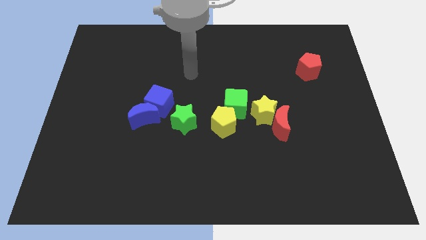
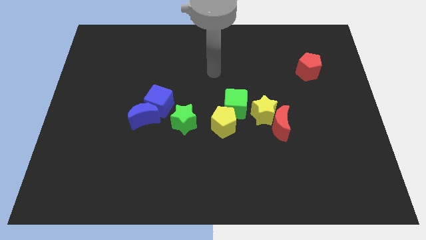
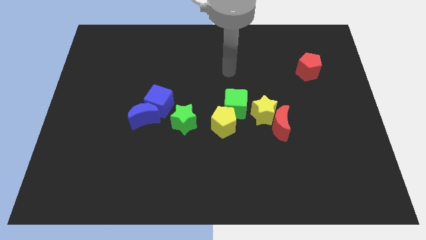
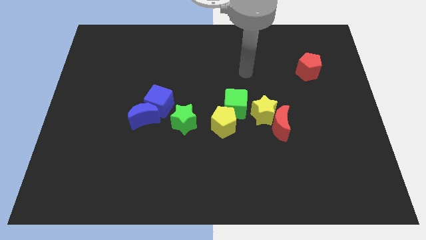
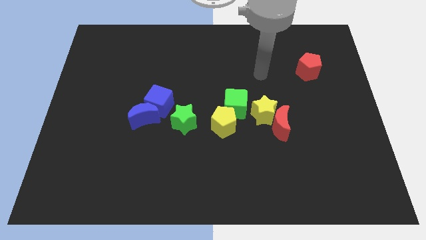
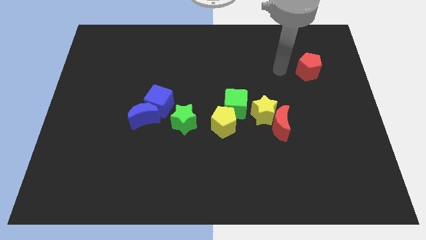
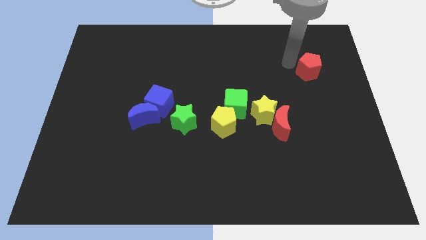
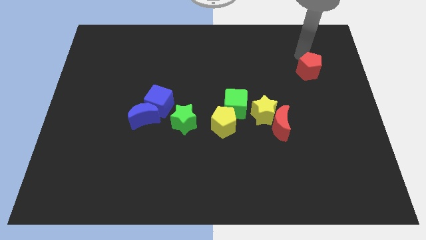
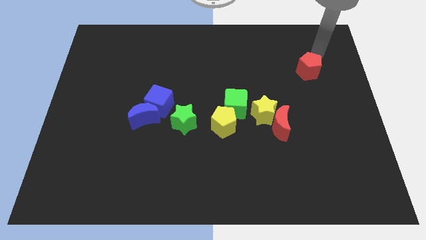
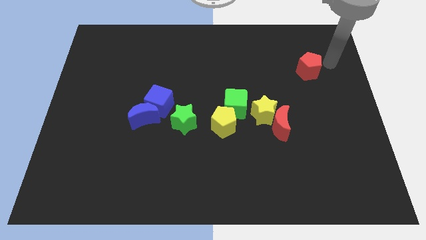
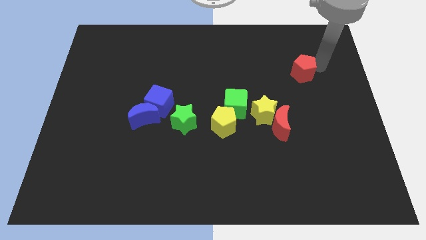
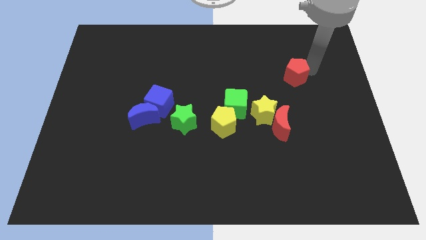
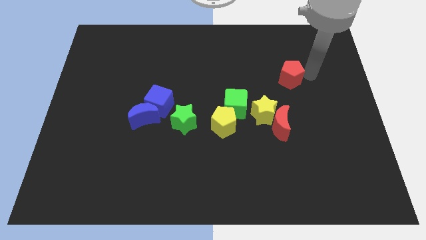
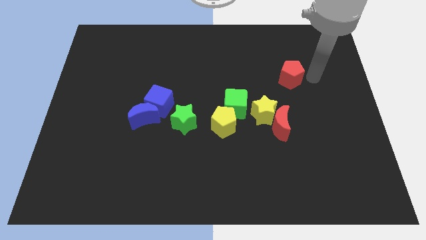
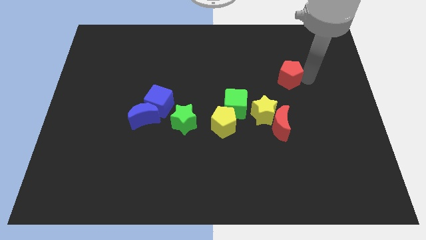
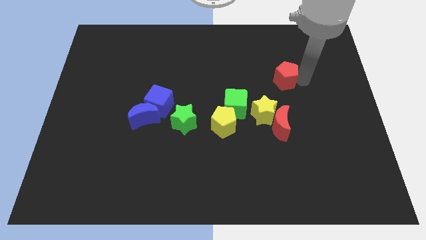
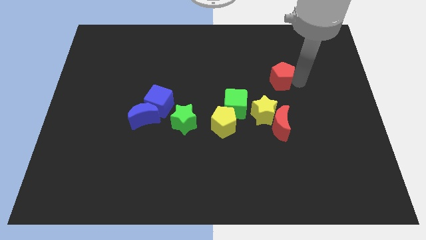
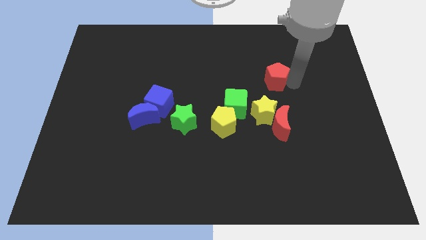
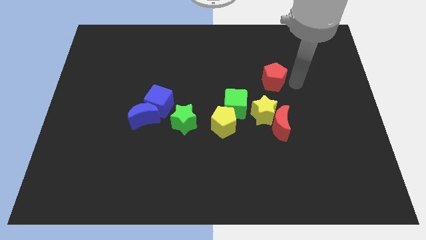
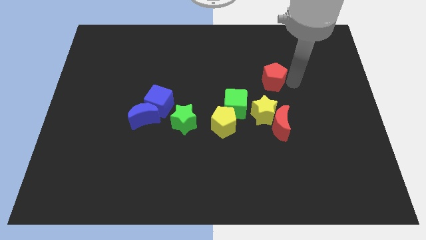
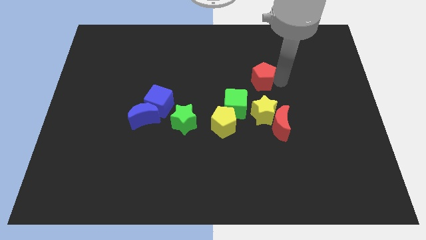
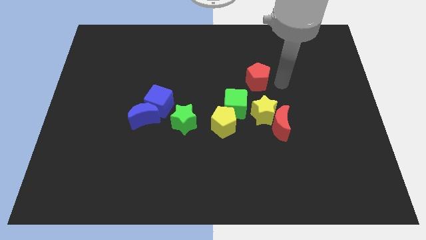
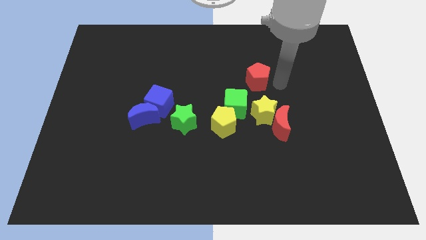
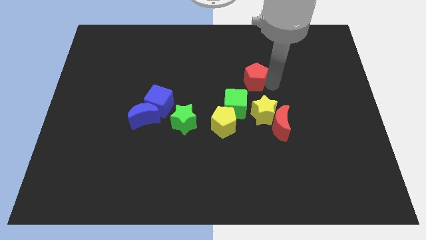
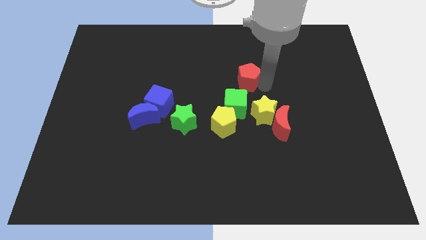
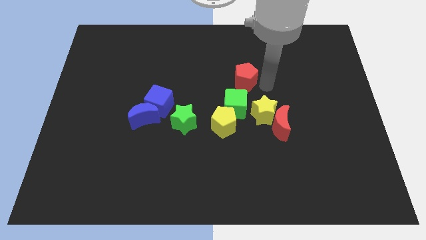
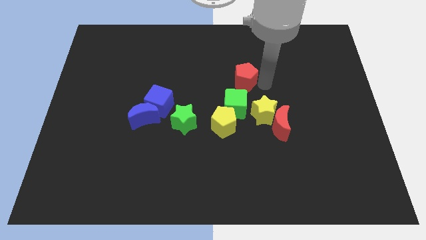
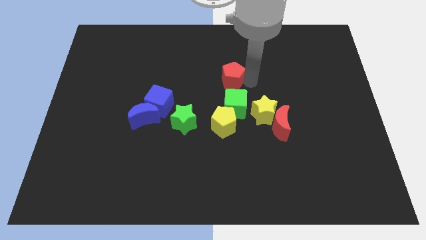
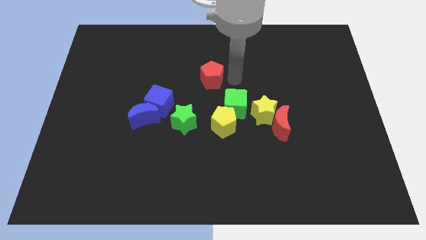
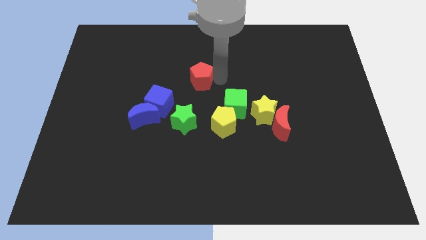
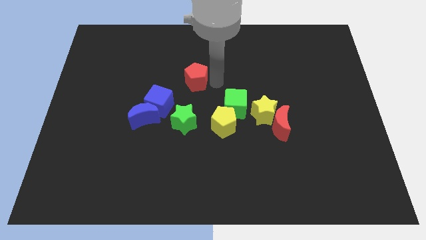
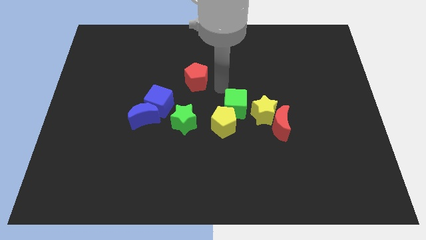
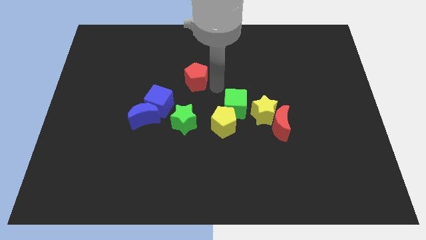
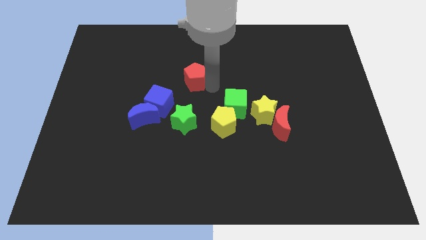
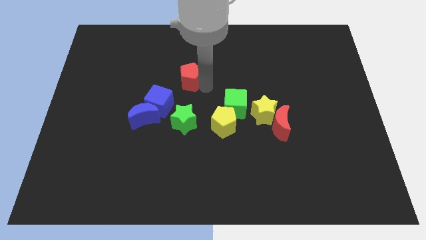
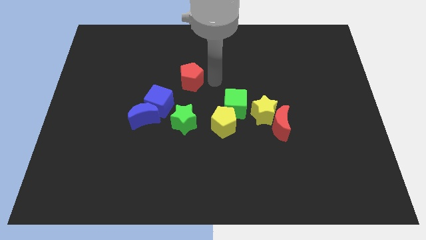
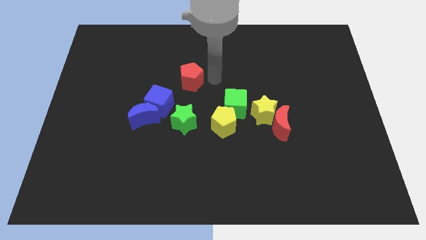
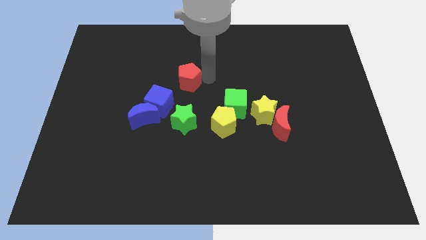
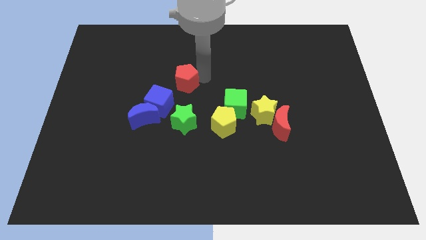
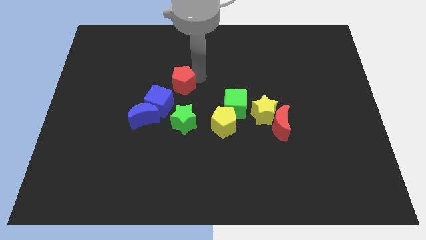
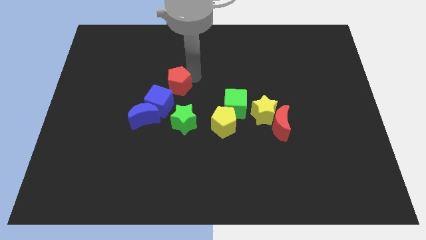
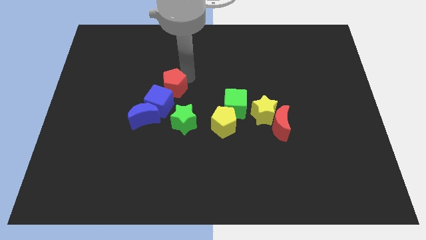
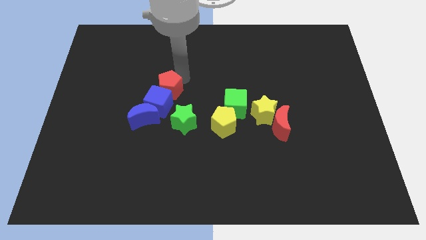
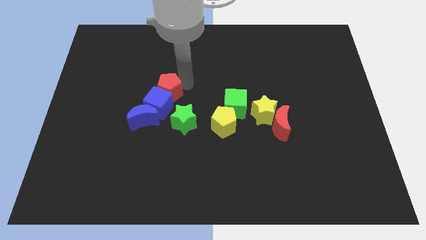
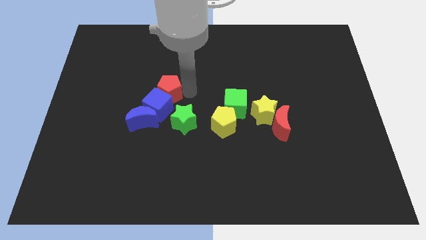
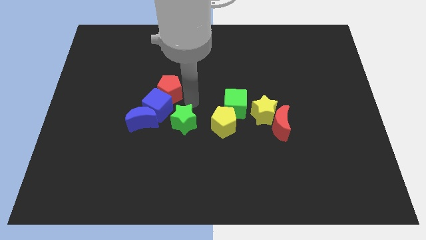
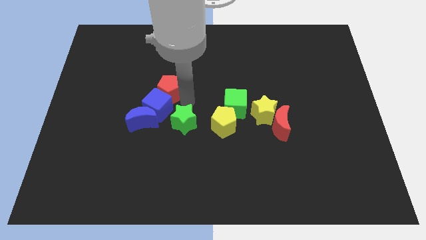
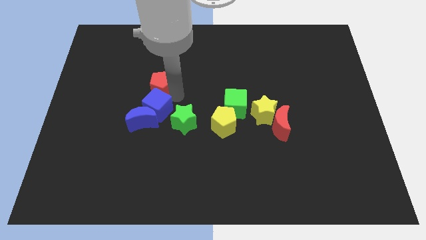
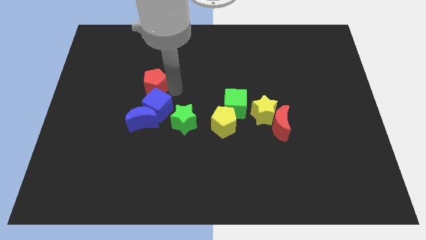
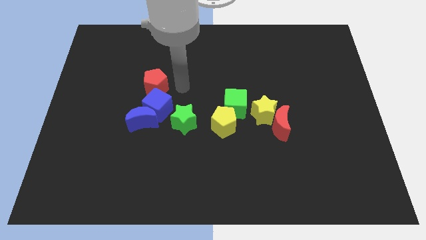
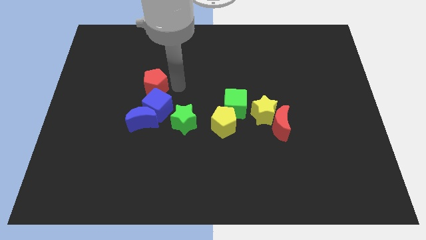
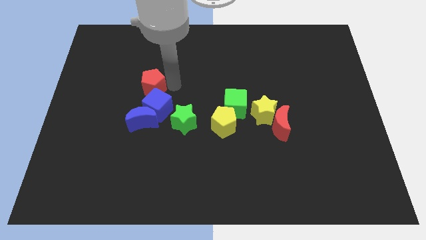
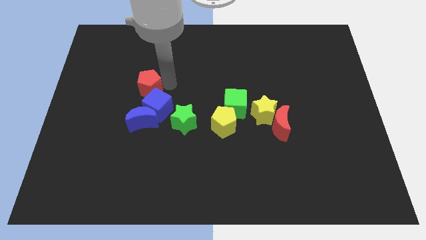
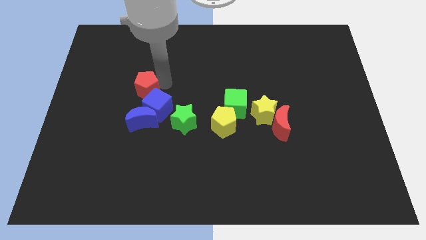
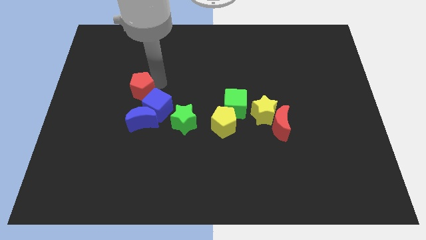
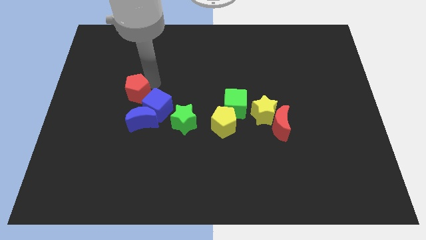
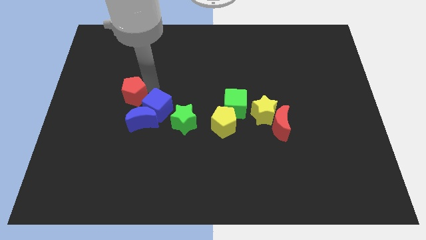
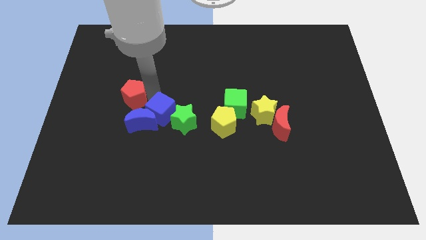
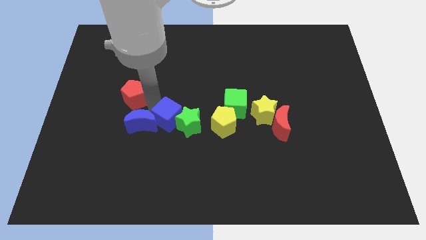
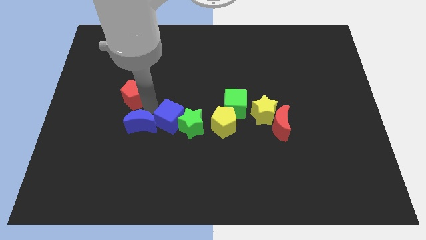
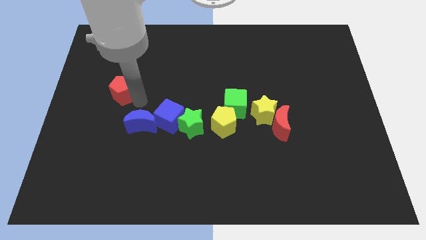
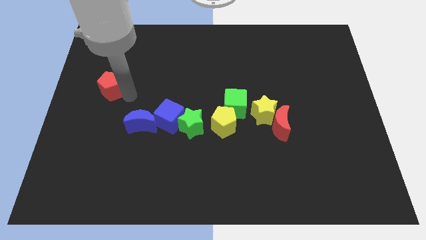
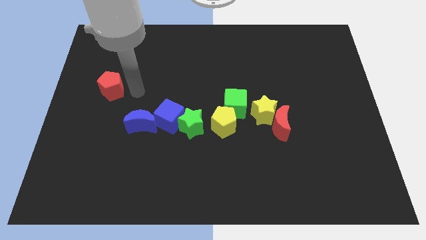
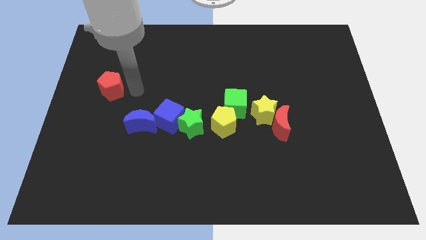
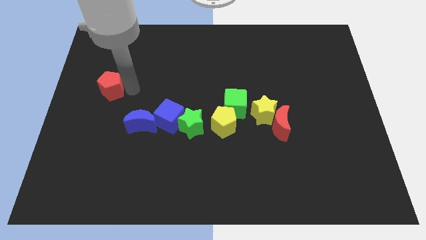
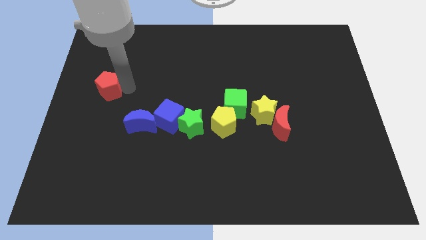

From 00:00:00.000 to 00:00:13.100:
move the red pentagon to the center left
